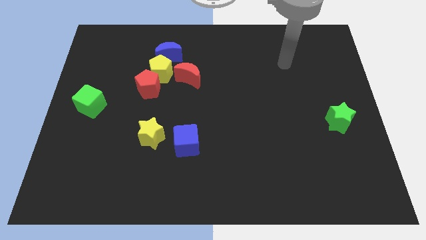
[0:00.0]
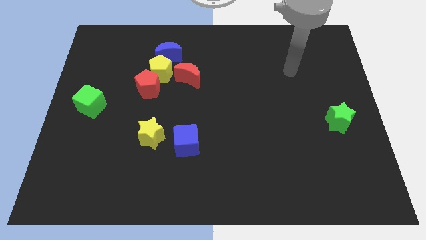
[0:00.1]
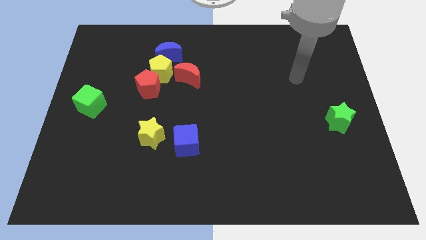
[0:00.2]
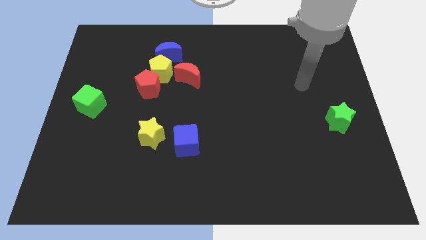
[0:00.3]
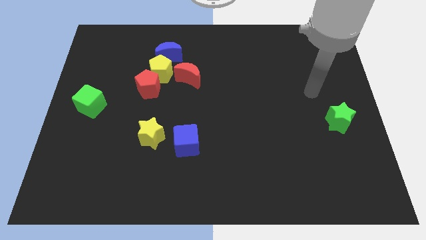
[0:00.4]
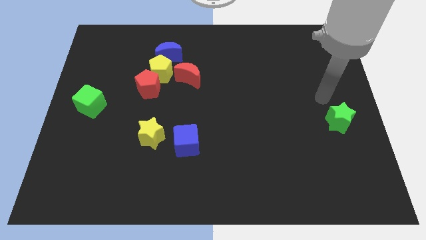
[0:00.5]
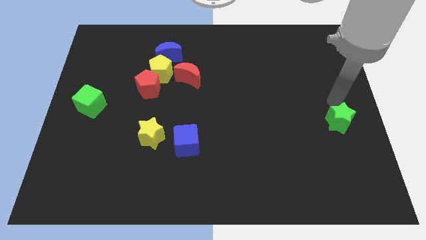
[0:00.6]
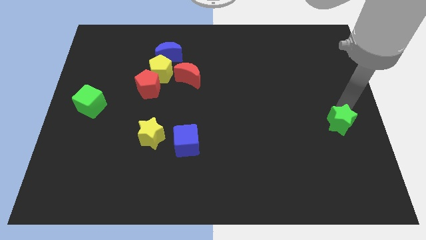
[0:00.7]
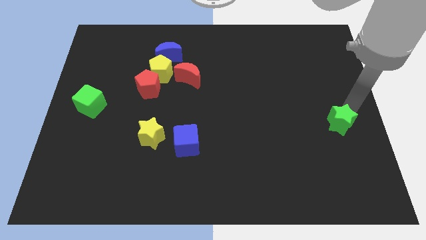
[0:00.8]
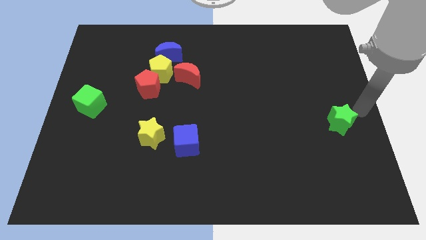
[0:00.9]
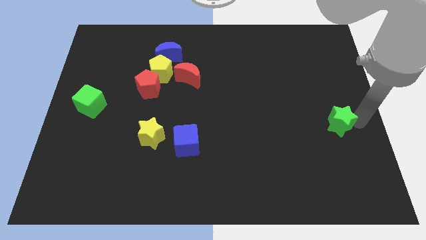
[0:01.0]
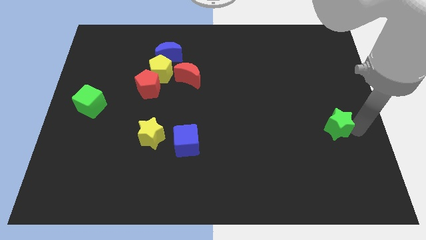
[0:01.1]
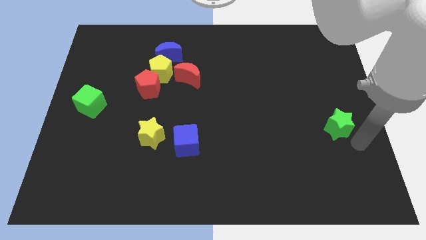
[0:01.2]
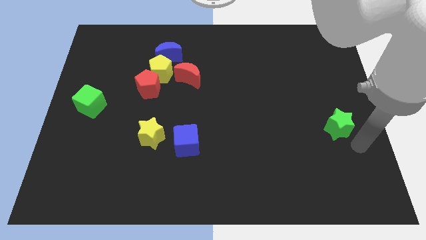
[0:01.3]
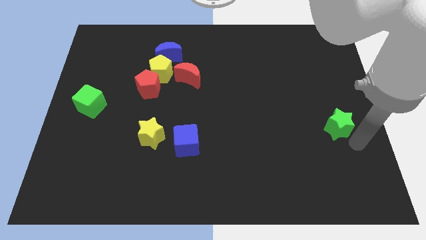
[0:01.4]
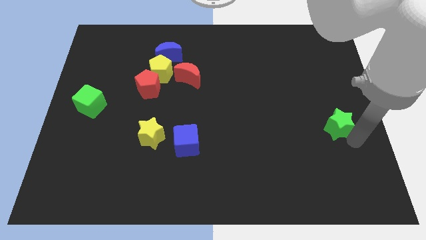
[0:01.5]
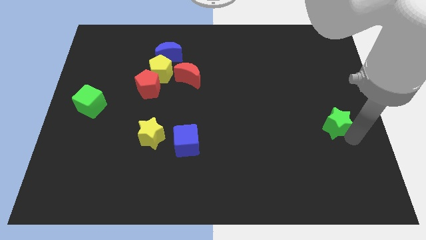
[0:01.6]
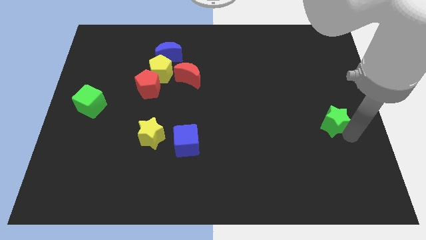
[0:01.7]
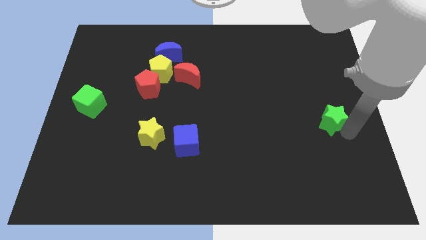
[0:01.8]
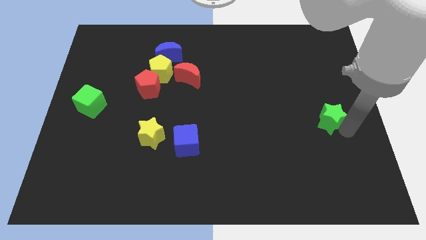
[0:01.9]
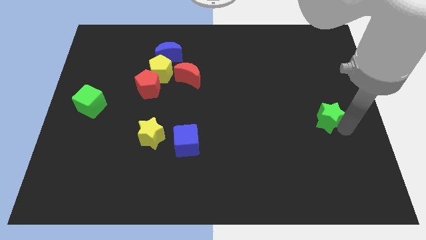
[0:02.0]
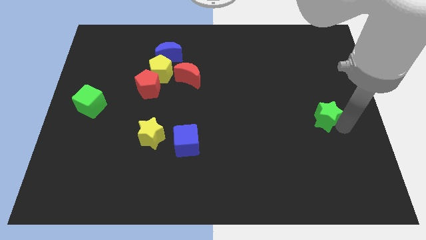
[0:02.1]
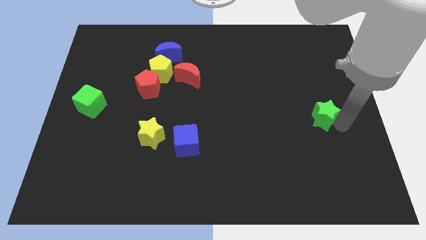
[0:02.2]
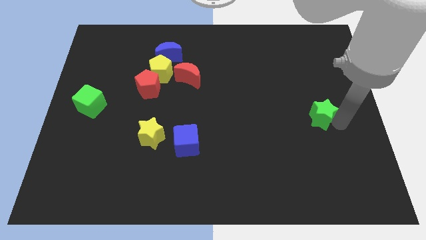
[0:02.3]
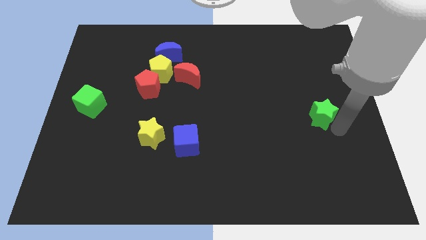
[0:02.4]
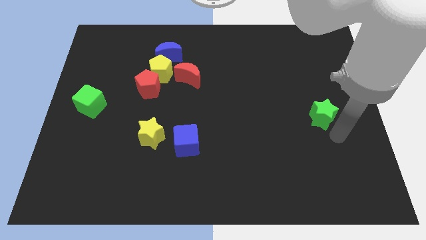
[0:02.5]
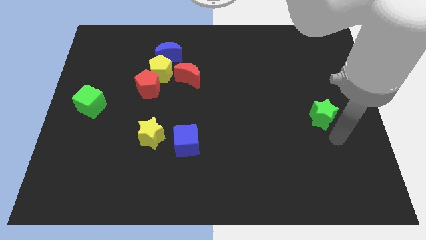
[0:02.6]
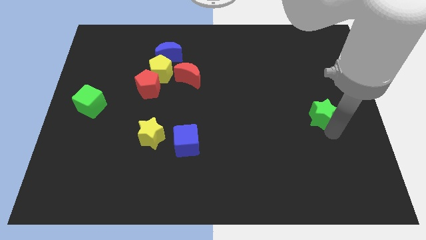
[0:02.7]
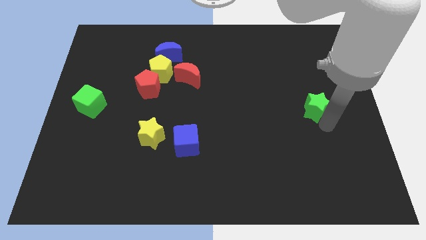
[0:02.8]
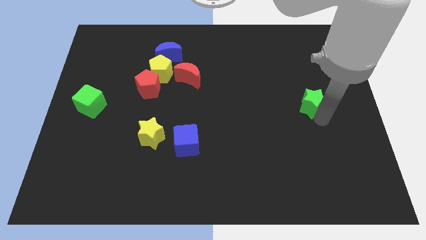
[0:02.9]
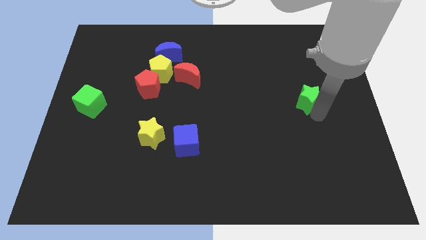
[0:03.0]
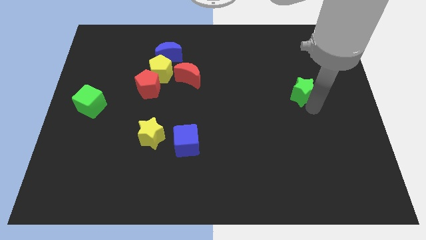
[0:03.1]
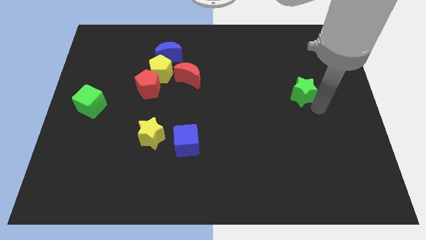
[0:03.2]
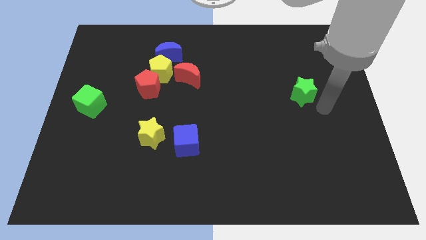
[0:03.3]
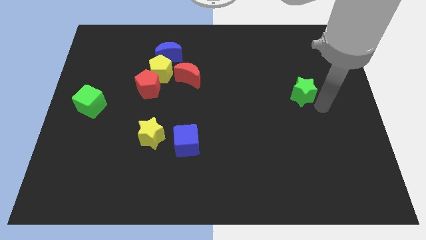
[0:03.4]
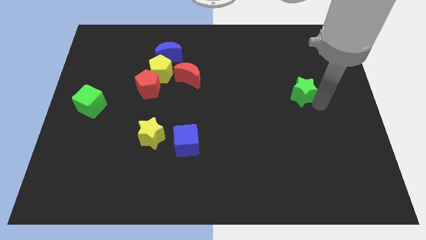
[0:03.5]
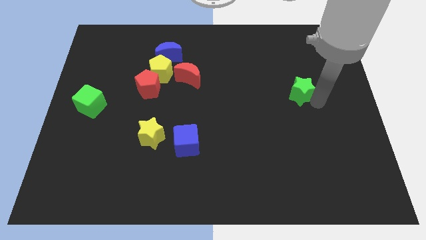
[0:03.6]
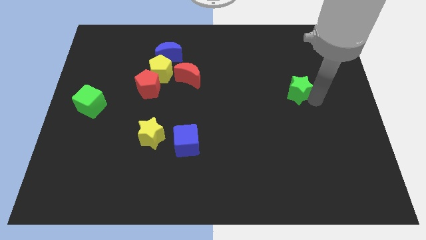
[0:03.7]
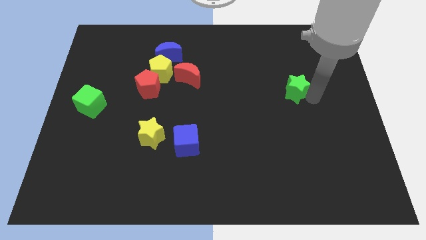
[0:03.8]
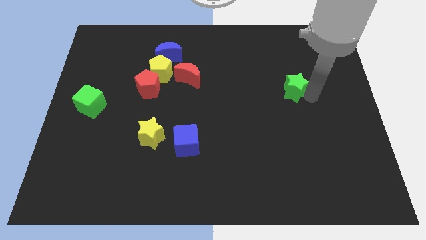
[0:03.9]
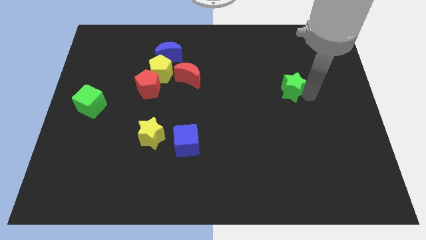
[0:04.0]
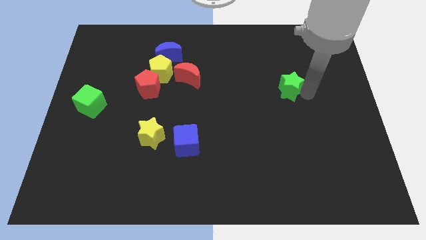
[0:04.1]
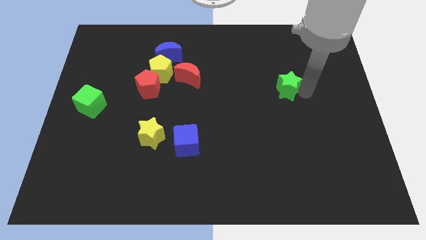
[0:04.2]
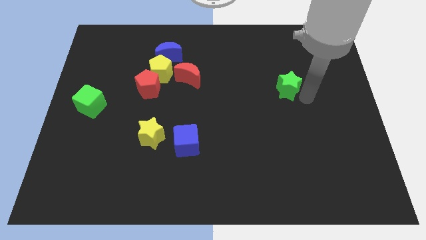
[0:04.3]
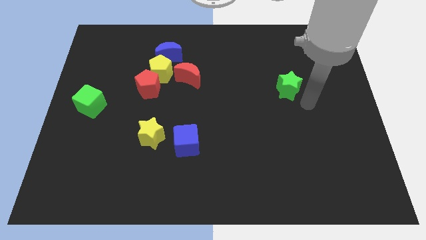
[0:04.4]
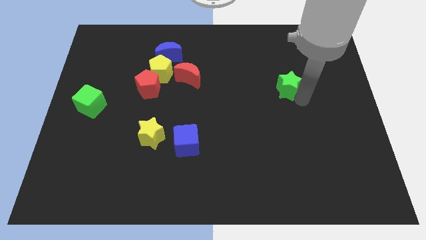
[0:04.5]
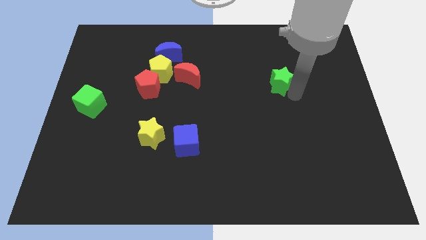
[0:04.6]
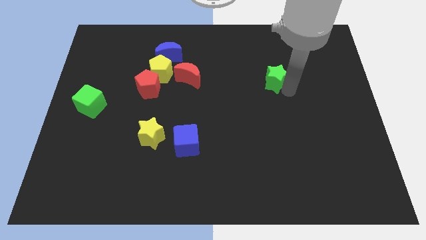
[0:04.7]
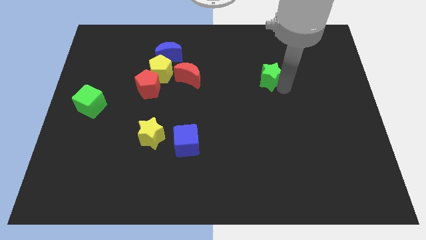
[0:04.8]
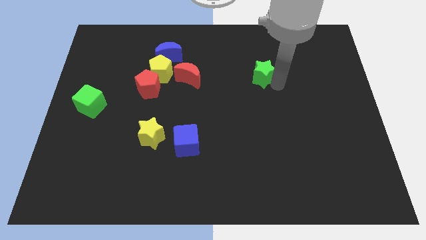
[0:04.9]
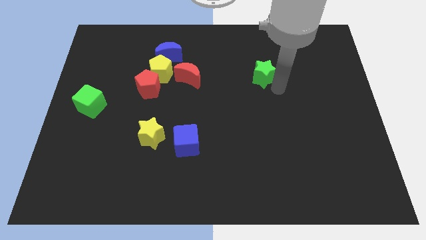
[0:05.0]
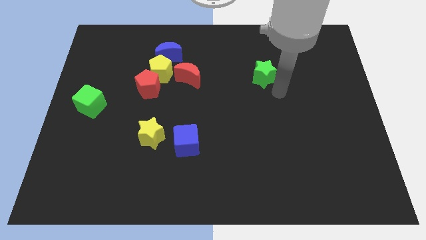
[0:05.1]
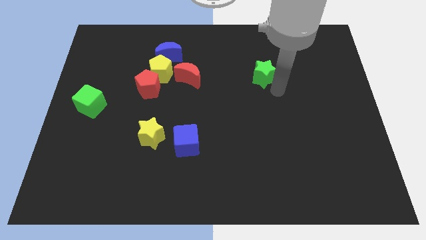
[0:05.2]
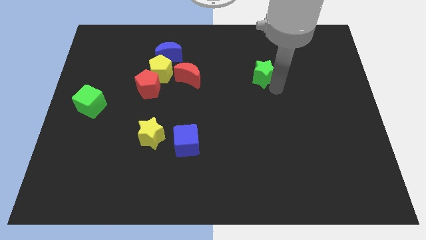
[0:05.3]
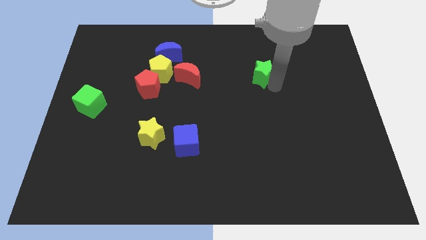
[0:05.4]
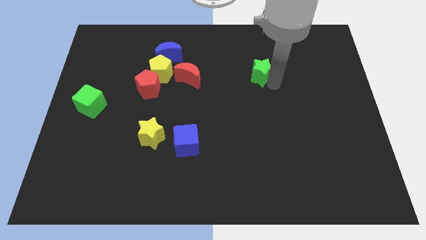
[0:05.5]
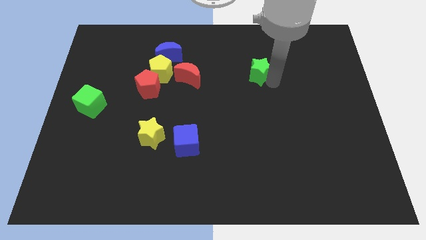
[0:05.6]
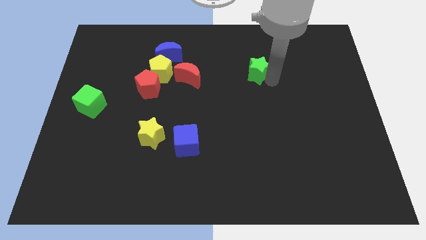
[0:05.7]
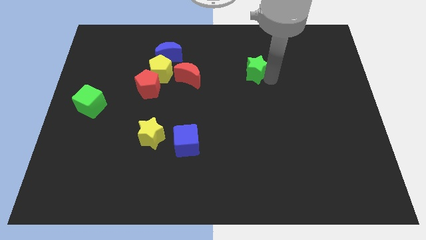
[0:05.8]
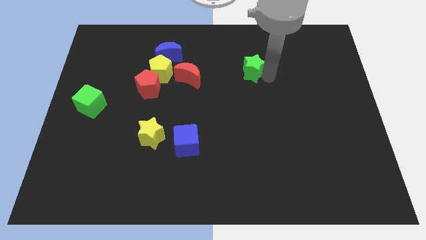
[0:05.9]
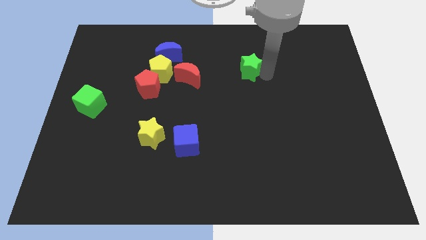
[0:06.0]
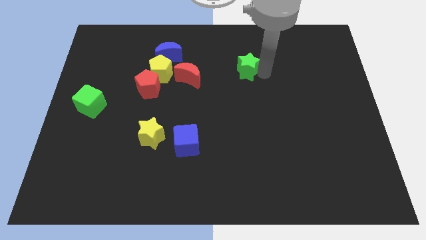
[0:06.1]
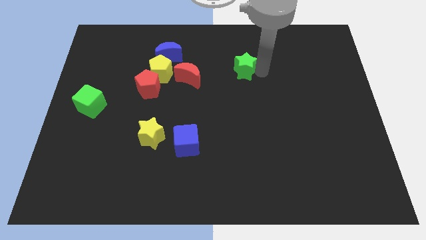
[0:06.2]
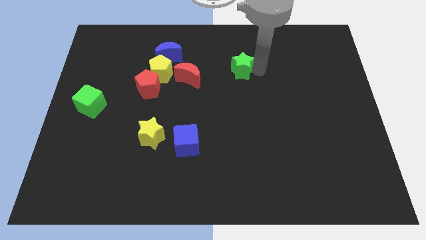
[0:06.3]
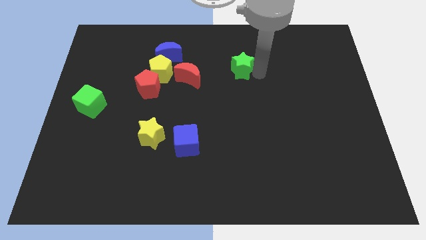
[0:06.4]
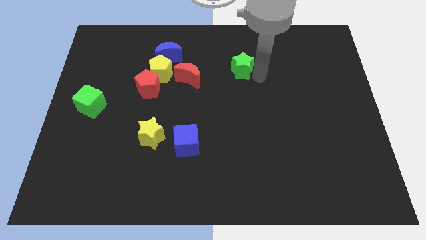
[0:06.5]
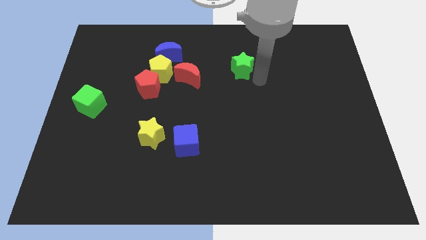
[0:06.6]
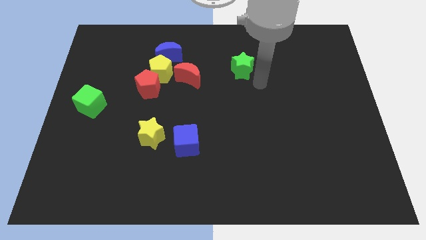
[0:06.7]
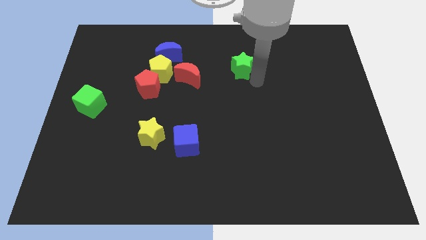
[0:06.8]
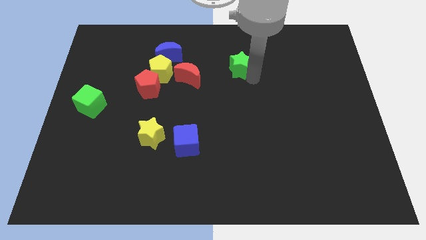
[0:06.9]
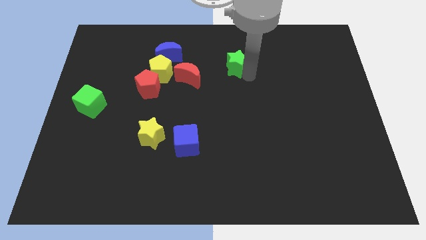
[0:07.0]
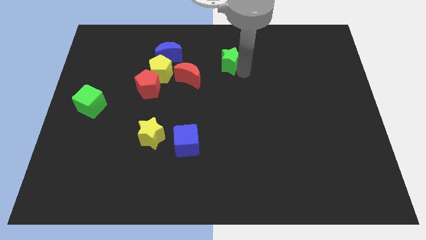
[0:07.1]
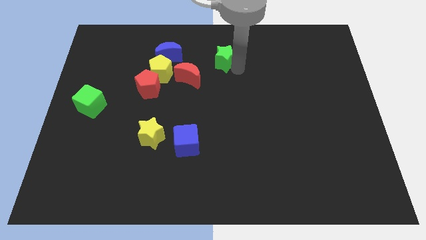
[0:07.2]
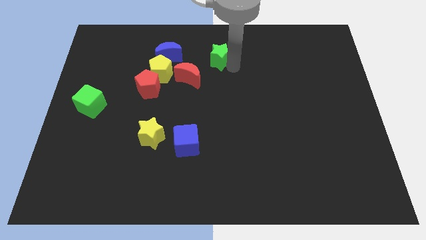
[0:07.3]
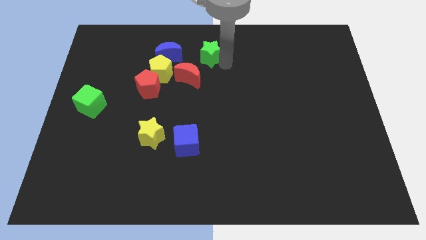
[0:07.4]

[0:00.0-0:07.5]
move the green star to the top side
